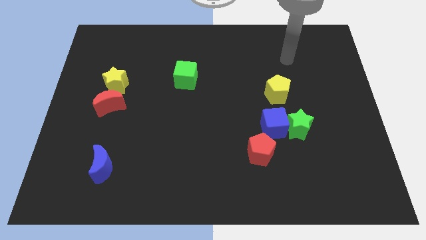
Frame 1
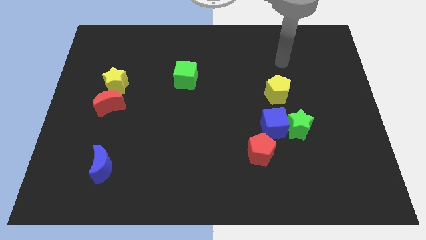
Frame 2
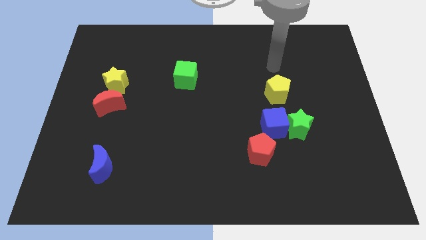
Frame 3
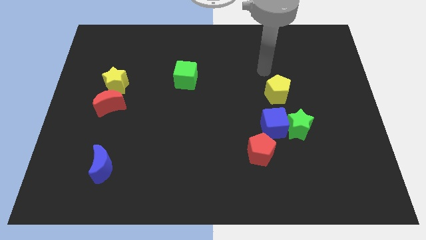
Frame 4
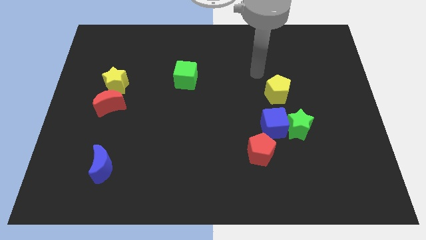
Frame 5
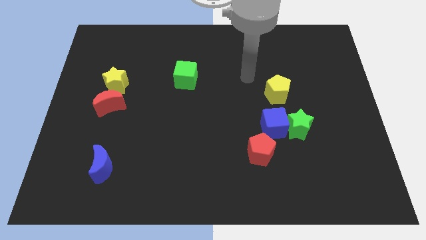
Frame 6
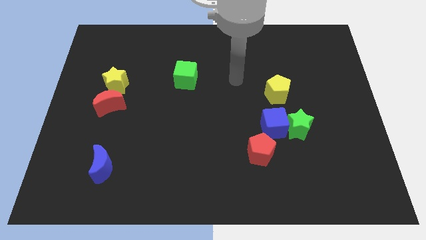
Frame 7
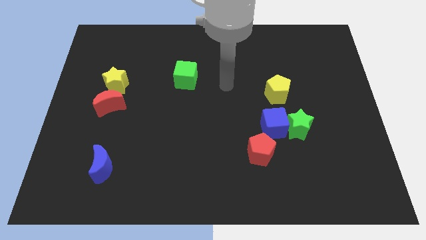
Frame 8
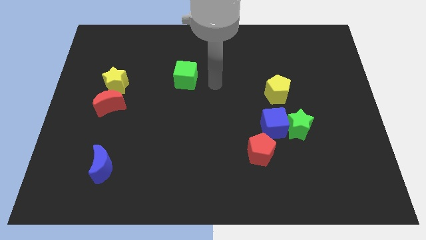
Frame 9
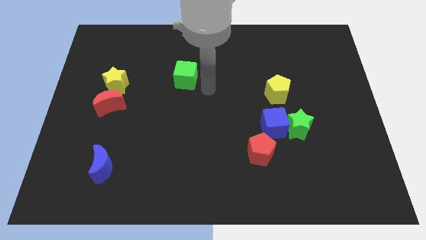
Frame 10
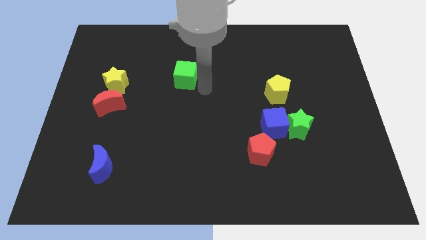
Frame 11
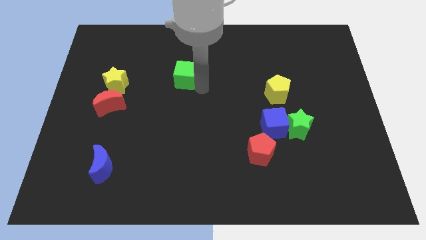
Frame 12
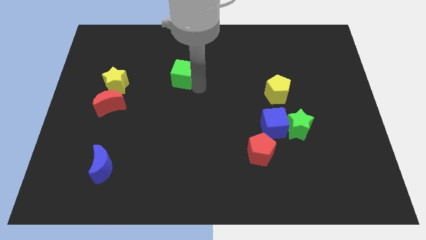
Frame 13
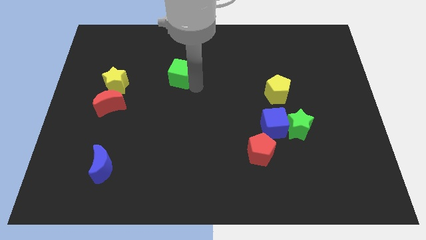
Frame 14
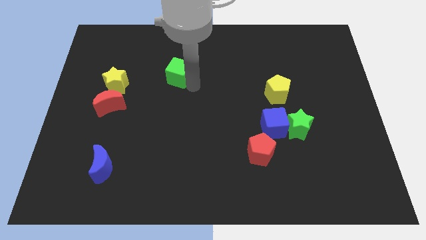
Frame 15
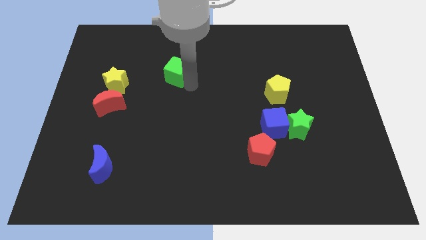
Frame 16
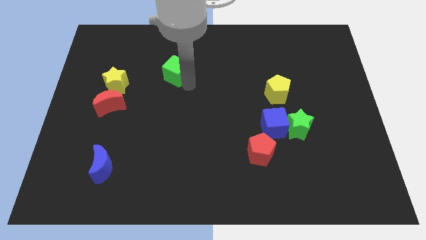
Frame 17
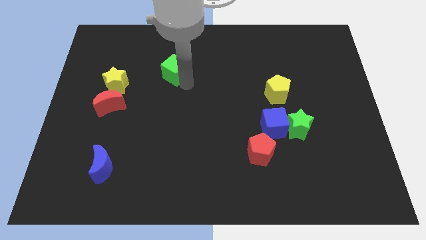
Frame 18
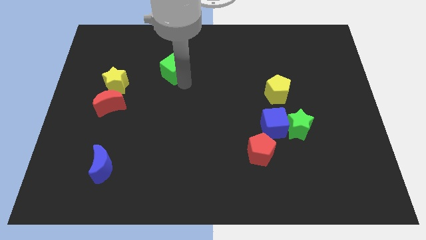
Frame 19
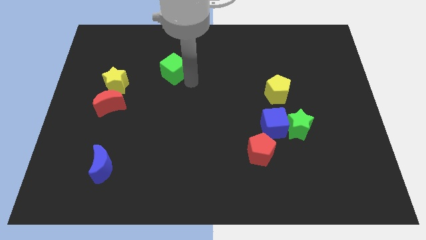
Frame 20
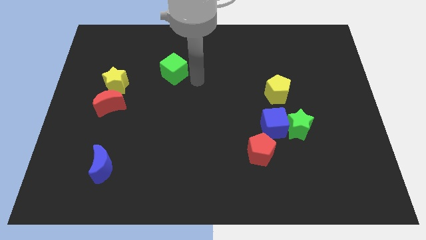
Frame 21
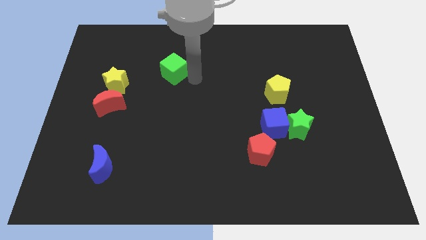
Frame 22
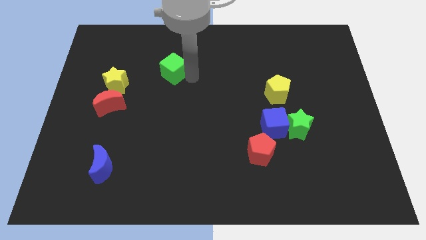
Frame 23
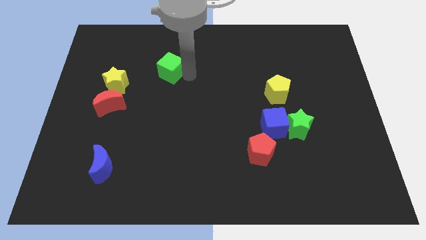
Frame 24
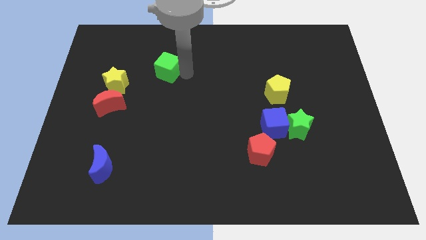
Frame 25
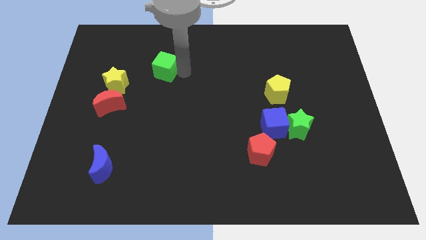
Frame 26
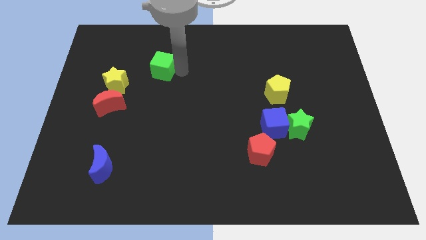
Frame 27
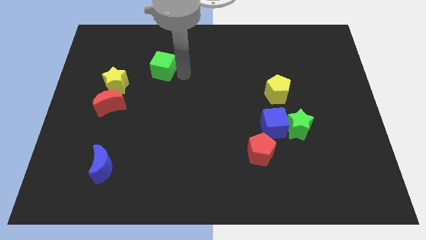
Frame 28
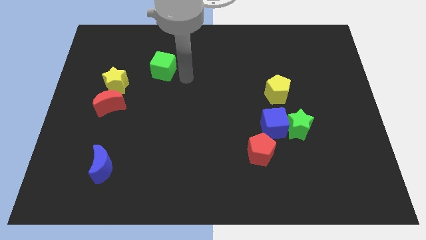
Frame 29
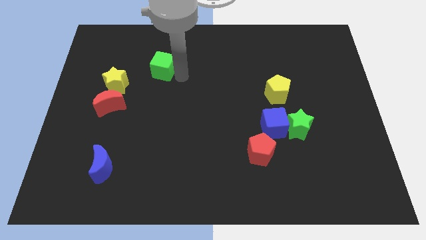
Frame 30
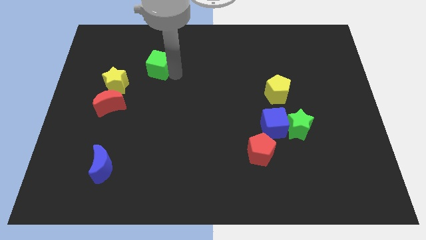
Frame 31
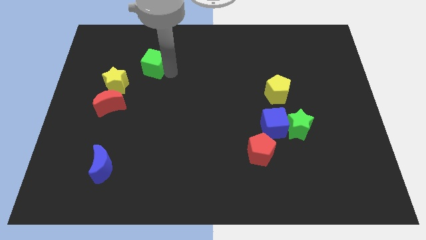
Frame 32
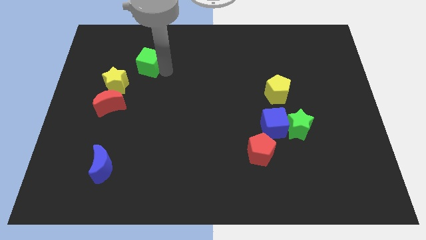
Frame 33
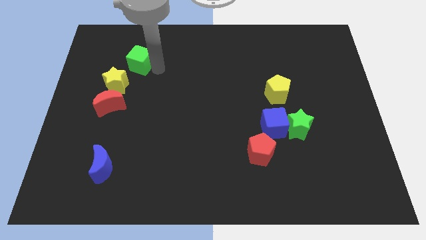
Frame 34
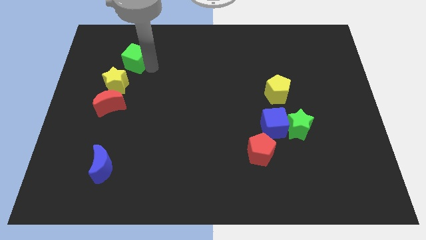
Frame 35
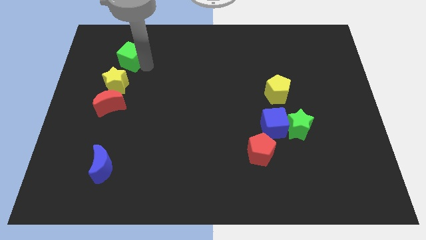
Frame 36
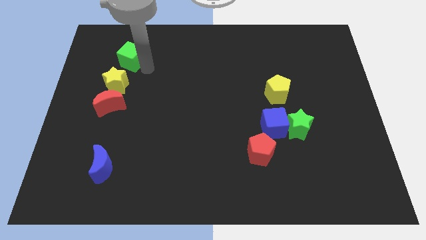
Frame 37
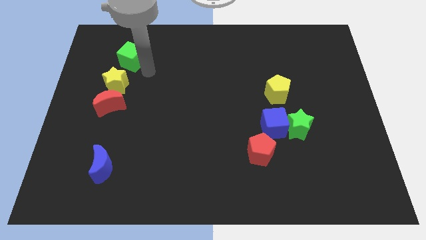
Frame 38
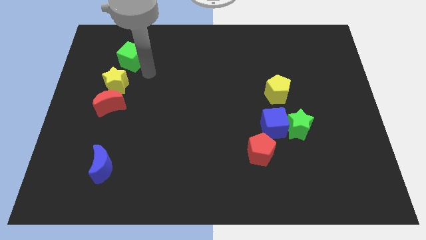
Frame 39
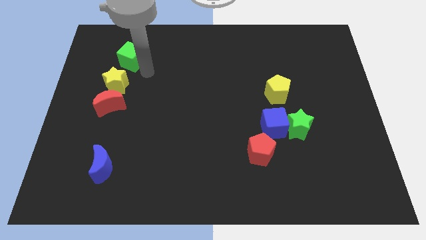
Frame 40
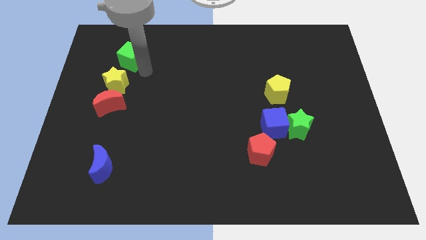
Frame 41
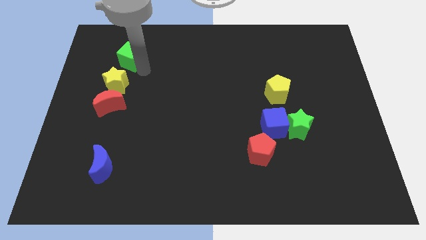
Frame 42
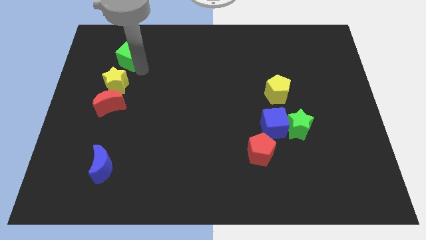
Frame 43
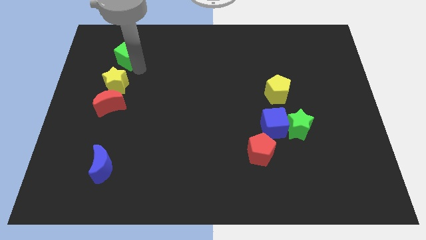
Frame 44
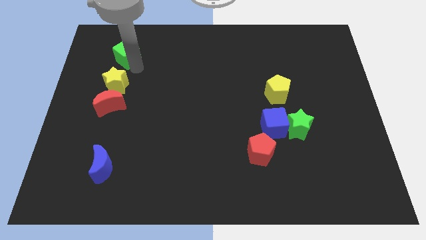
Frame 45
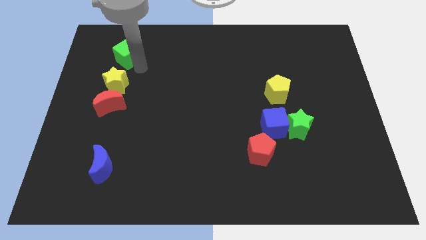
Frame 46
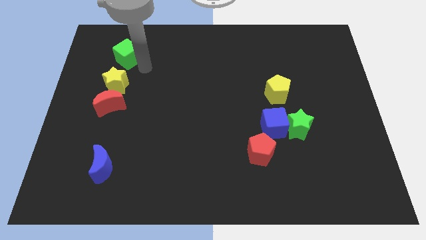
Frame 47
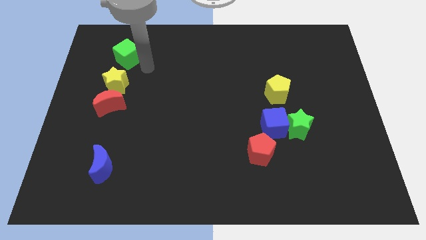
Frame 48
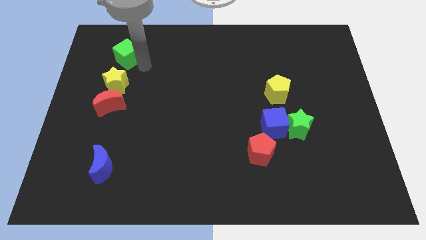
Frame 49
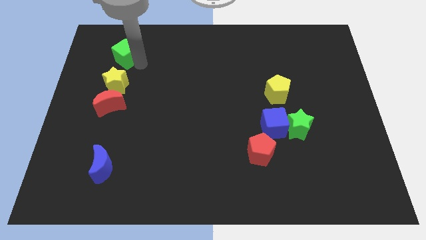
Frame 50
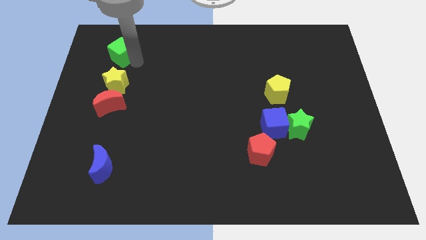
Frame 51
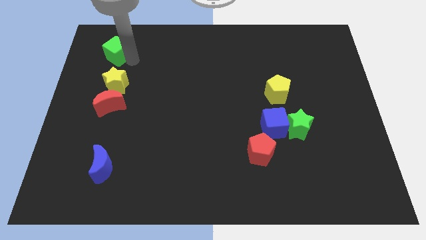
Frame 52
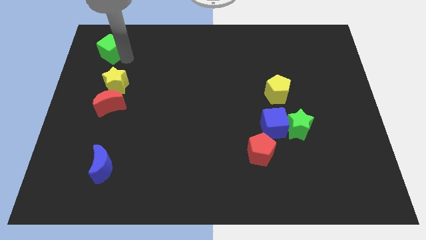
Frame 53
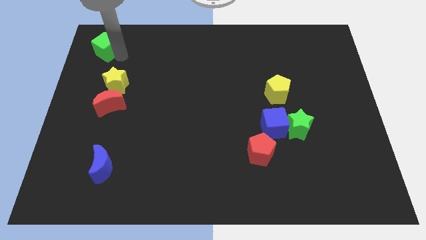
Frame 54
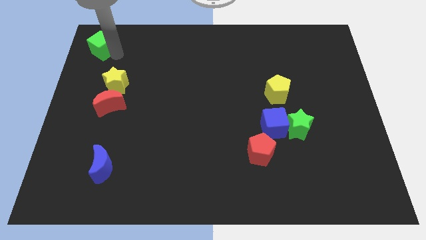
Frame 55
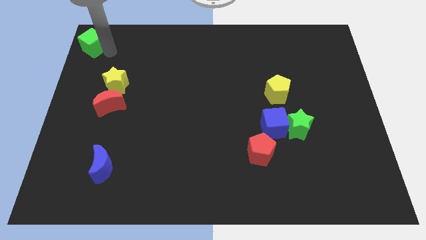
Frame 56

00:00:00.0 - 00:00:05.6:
push the green cube to the top left of the board

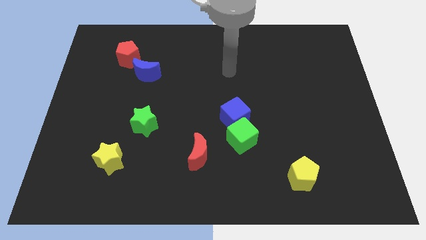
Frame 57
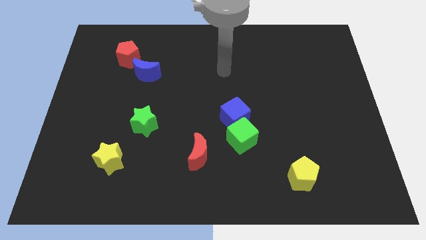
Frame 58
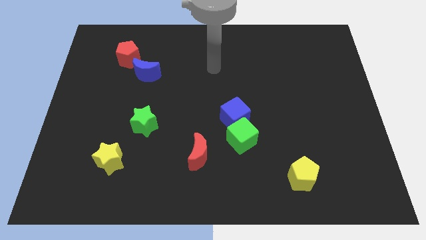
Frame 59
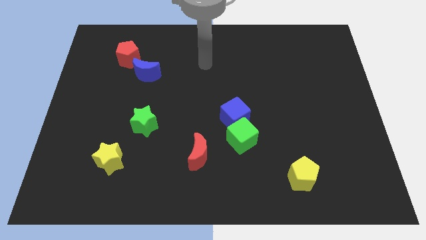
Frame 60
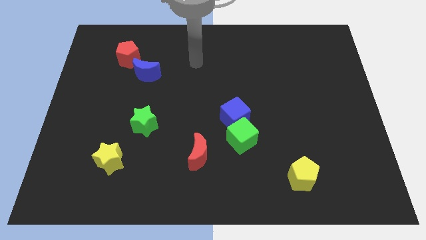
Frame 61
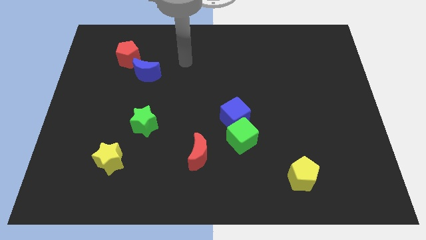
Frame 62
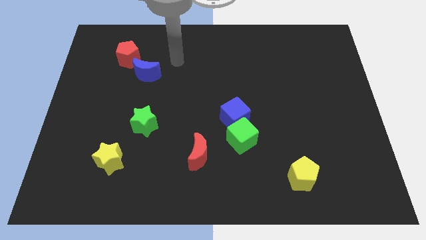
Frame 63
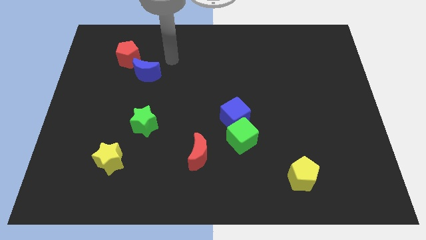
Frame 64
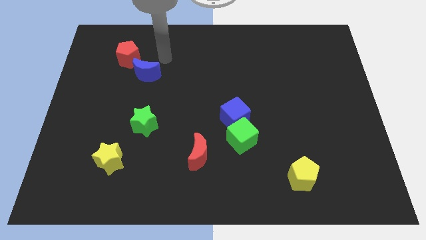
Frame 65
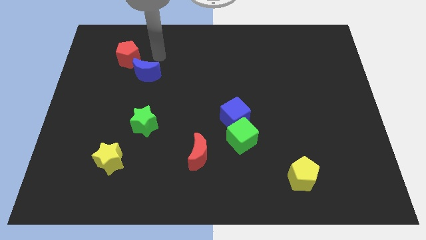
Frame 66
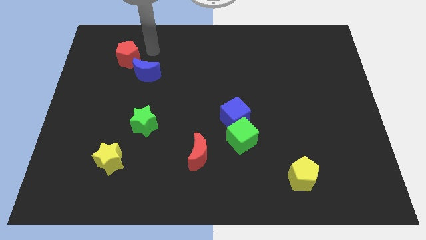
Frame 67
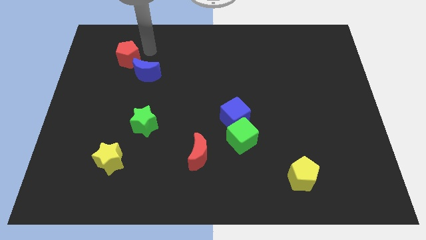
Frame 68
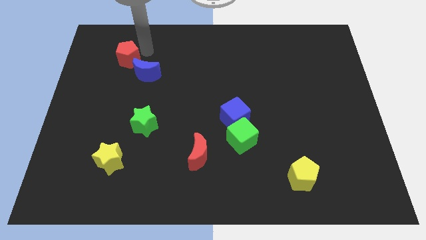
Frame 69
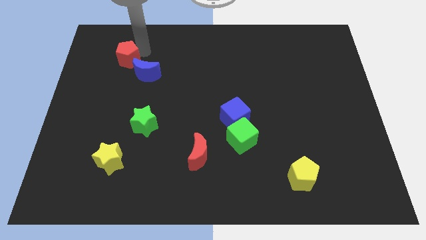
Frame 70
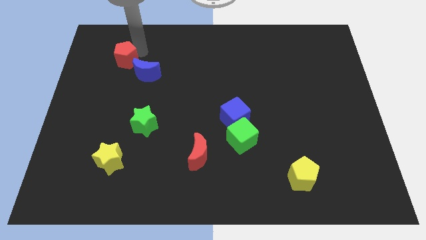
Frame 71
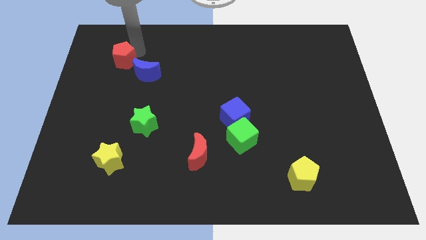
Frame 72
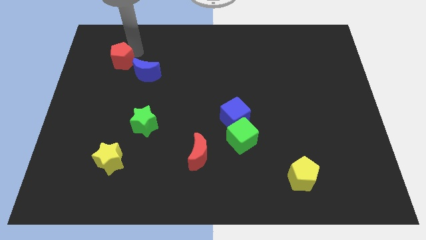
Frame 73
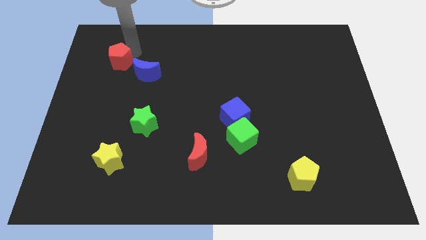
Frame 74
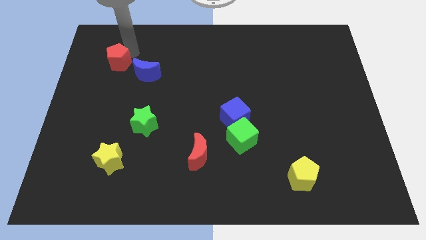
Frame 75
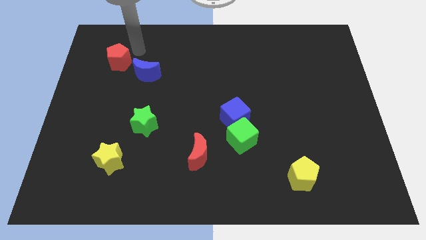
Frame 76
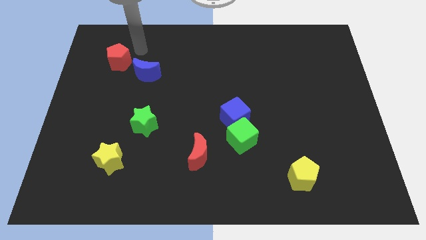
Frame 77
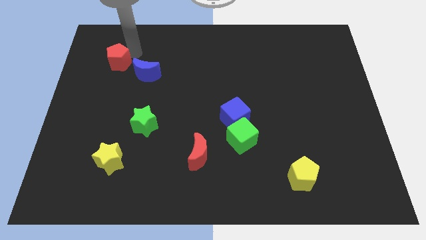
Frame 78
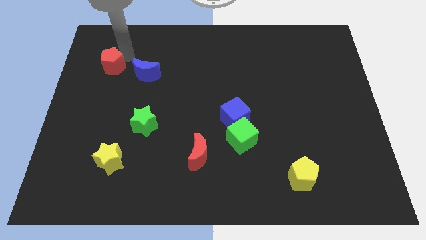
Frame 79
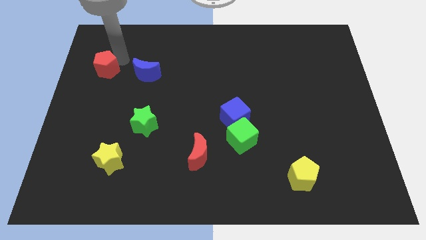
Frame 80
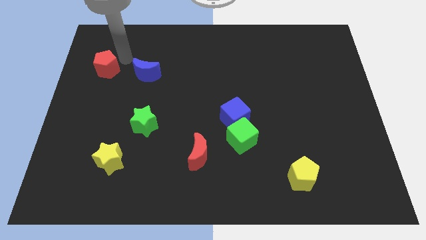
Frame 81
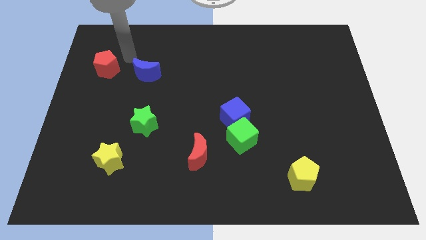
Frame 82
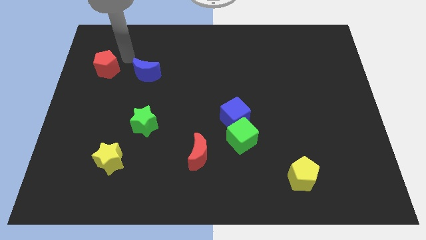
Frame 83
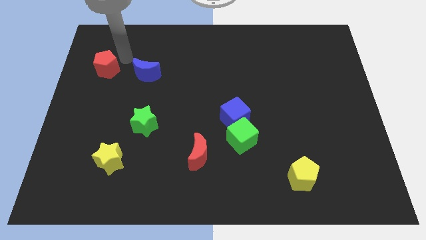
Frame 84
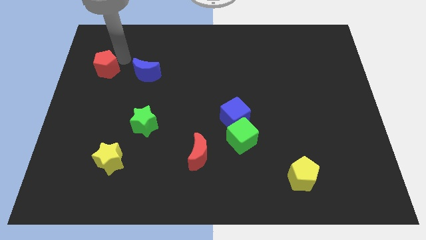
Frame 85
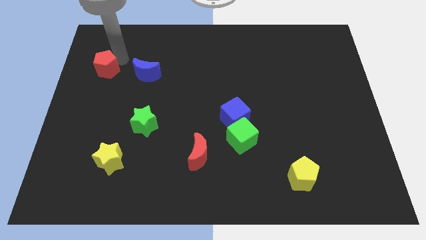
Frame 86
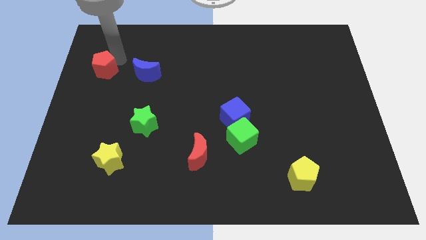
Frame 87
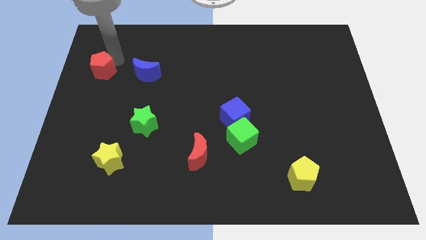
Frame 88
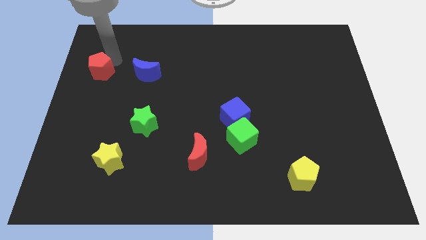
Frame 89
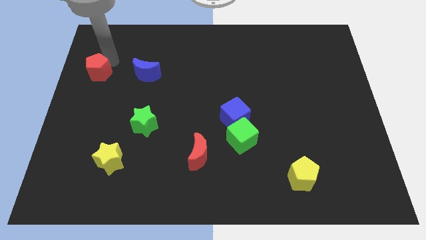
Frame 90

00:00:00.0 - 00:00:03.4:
move the red pentagon to the left side of the board
